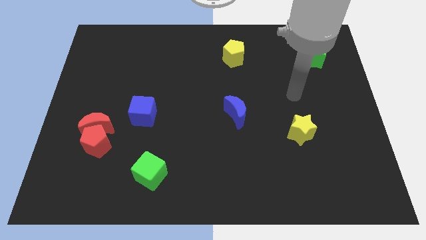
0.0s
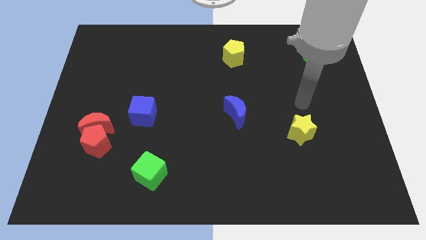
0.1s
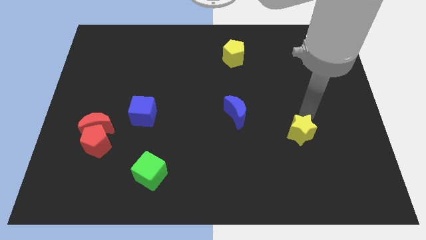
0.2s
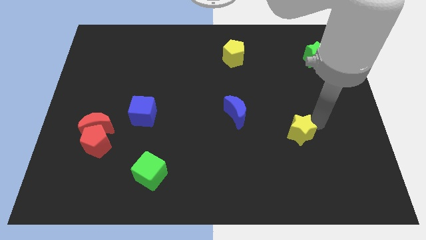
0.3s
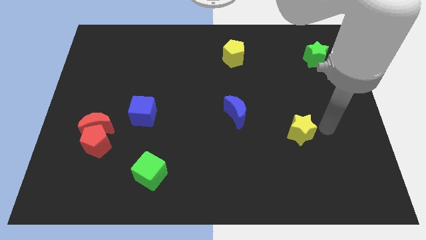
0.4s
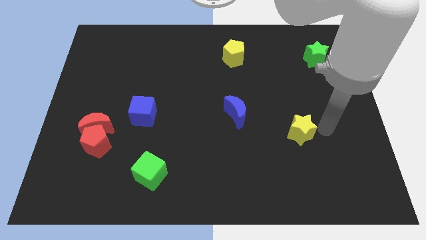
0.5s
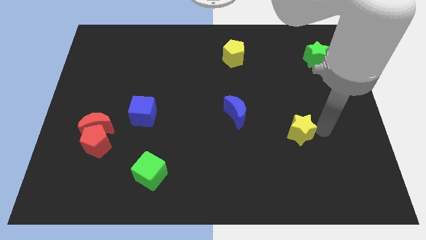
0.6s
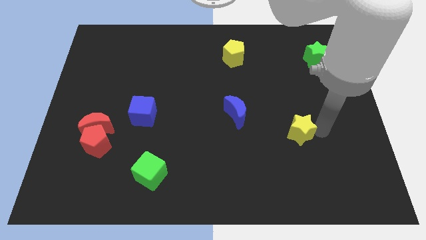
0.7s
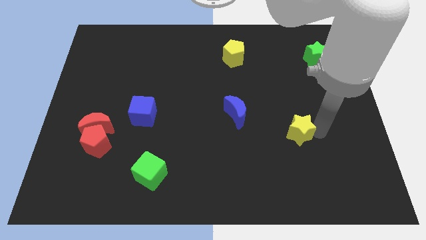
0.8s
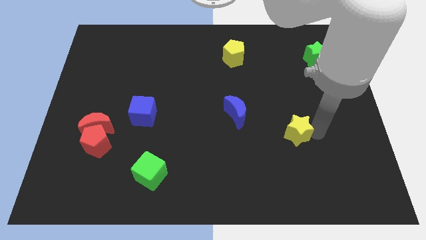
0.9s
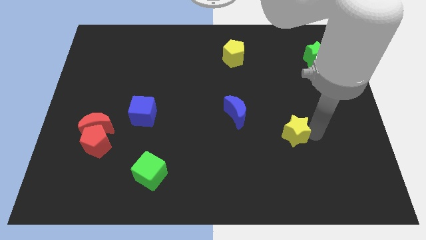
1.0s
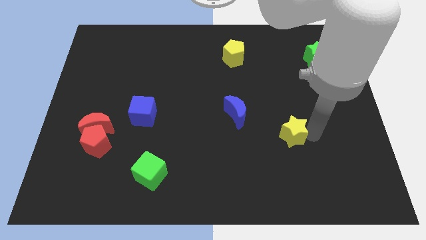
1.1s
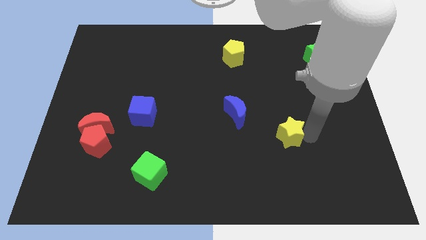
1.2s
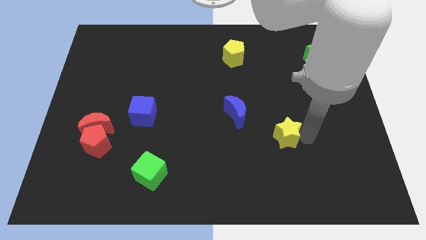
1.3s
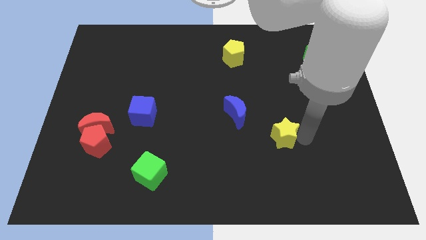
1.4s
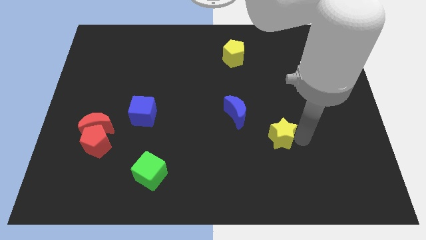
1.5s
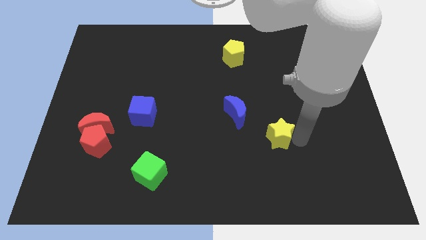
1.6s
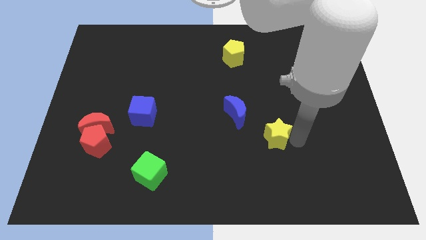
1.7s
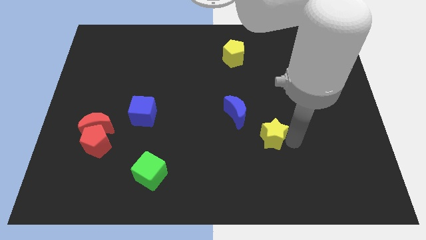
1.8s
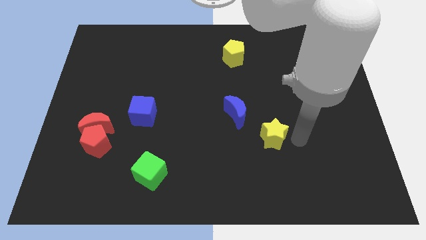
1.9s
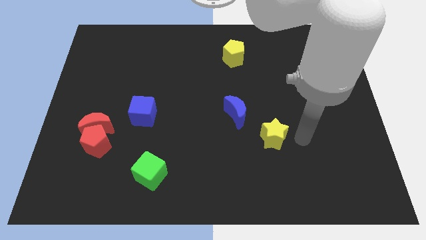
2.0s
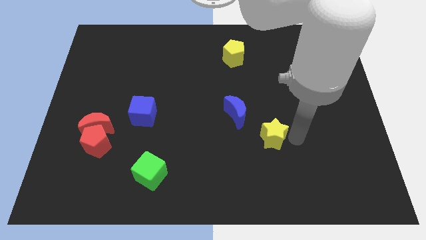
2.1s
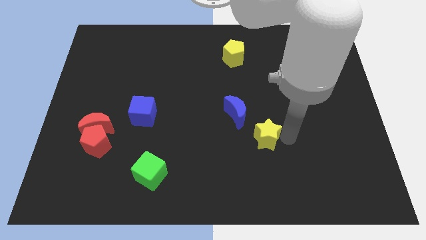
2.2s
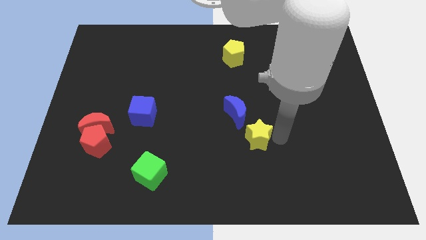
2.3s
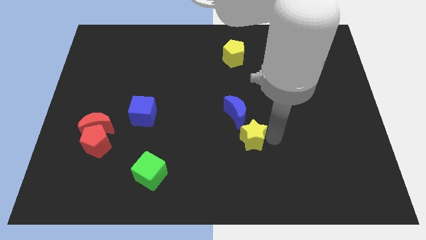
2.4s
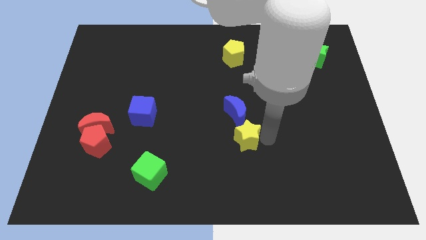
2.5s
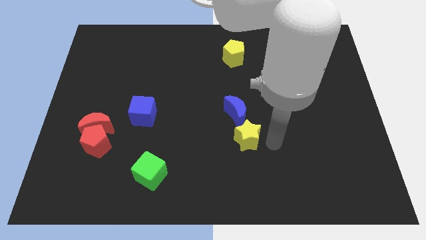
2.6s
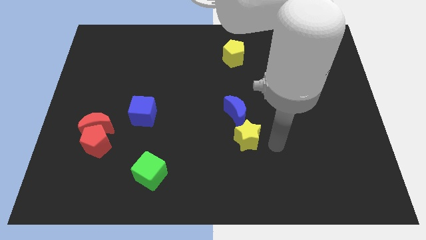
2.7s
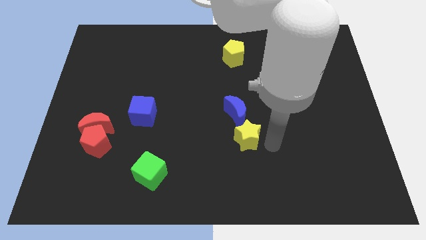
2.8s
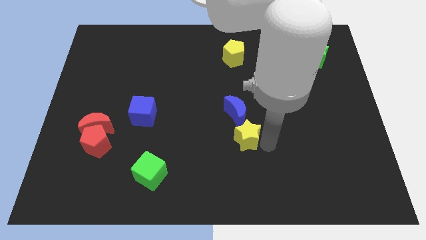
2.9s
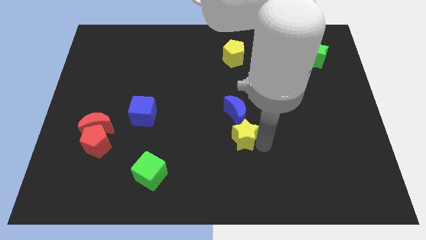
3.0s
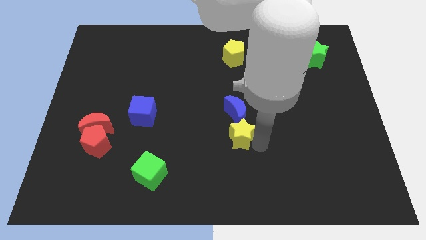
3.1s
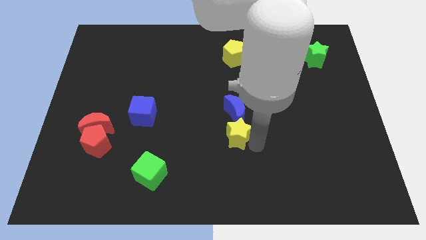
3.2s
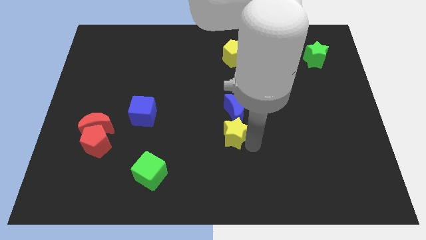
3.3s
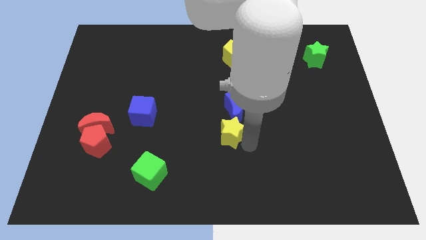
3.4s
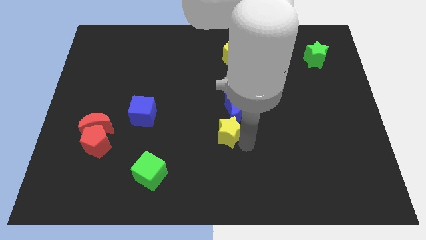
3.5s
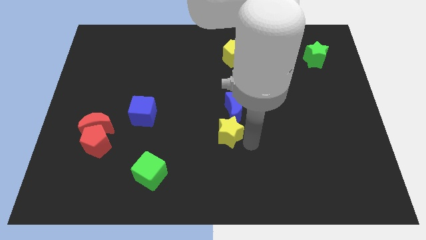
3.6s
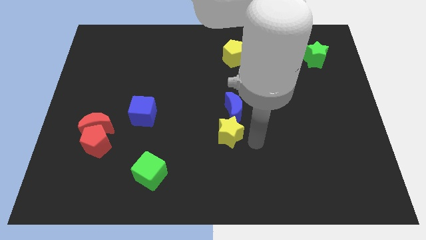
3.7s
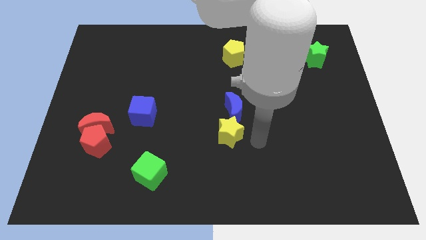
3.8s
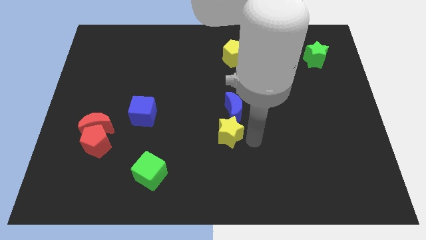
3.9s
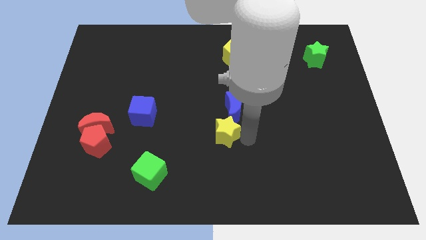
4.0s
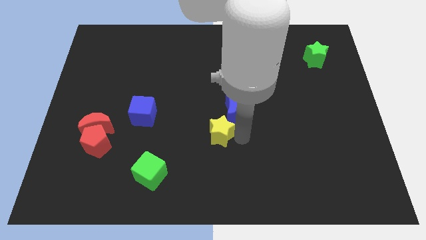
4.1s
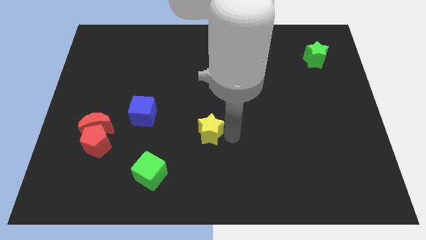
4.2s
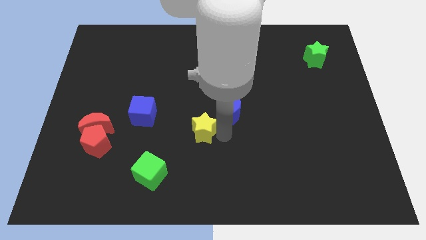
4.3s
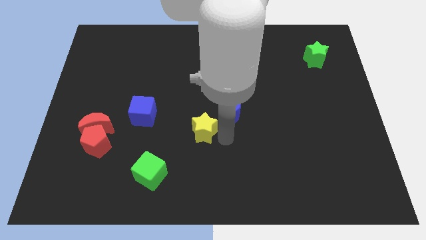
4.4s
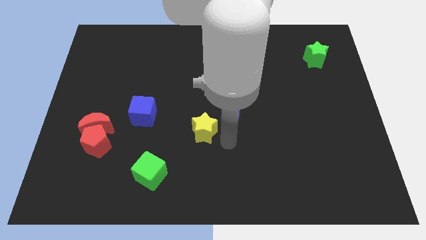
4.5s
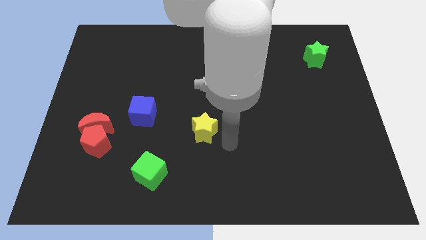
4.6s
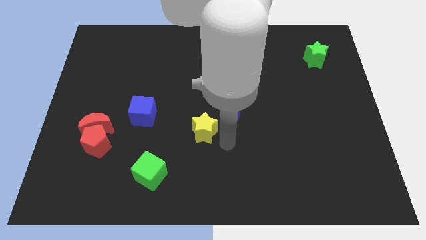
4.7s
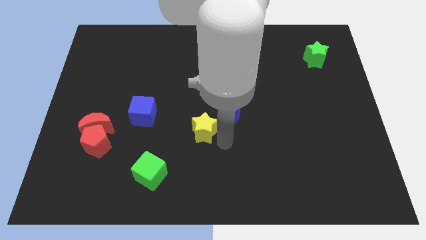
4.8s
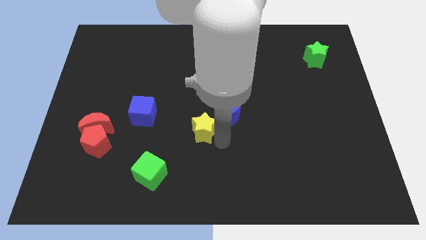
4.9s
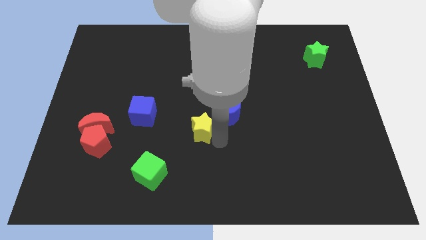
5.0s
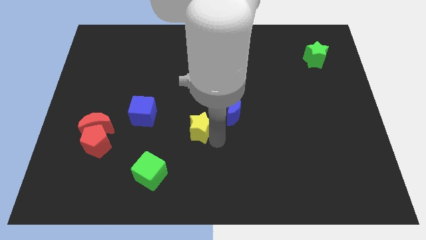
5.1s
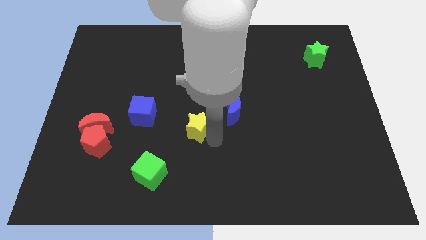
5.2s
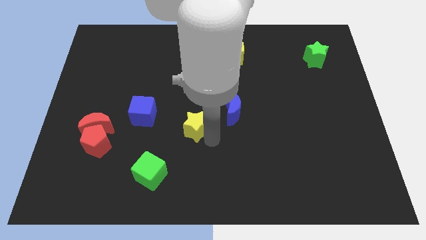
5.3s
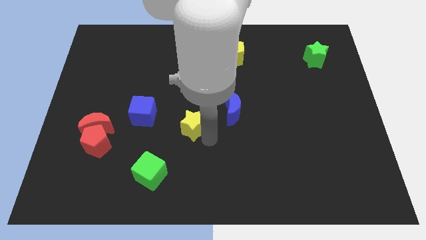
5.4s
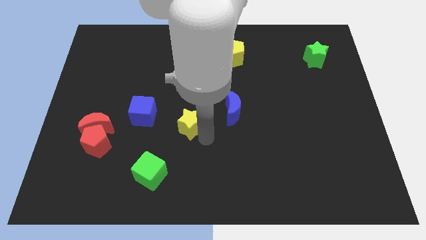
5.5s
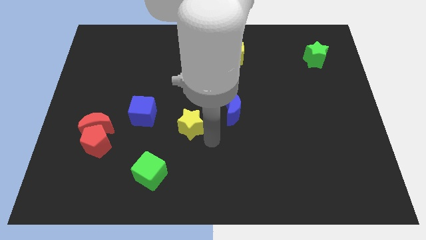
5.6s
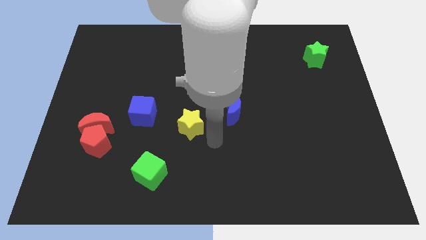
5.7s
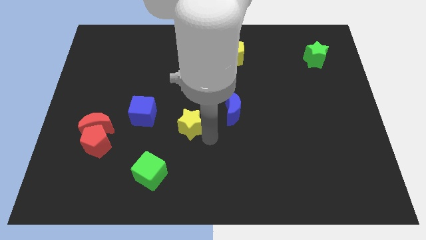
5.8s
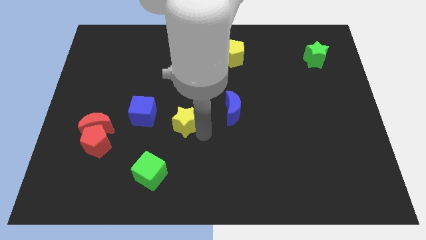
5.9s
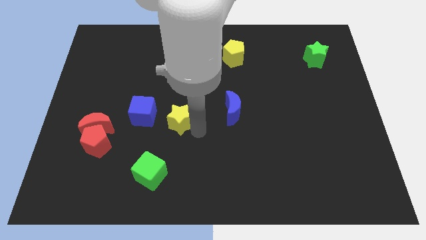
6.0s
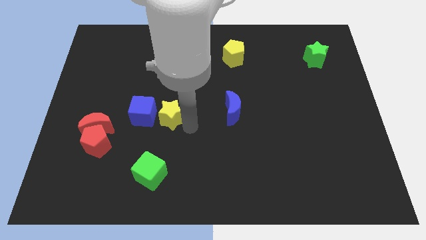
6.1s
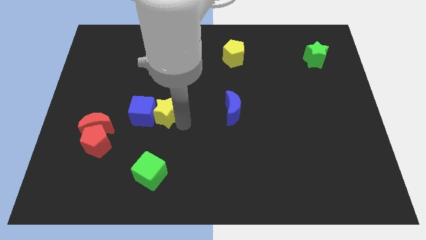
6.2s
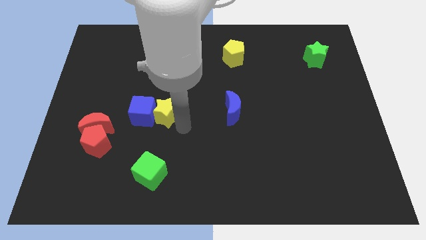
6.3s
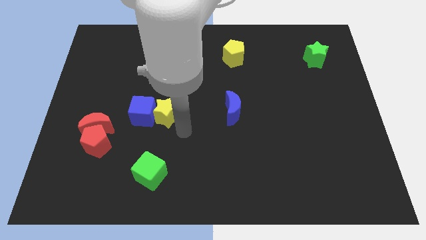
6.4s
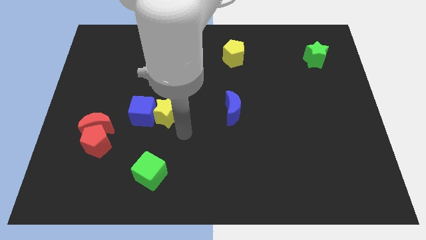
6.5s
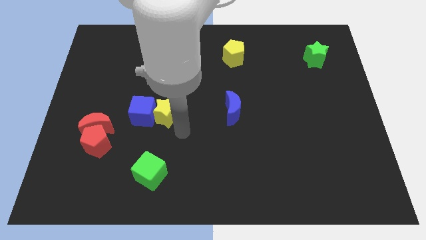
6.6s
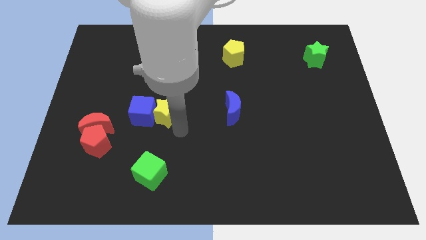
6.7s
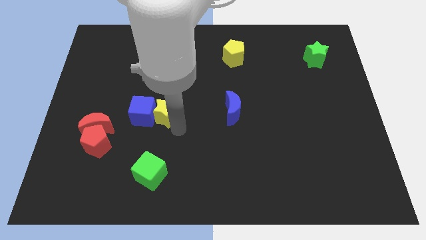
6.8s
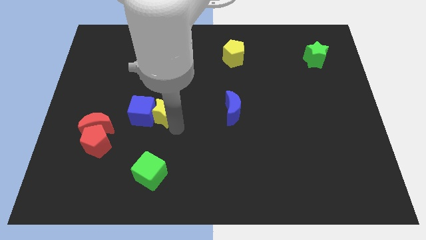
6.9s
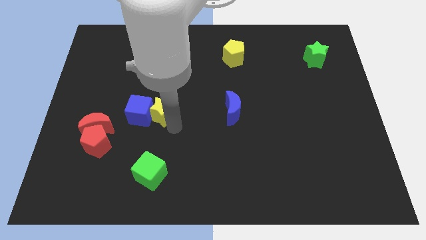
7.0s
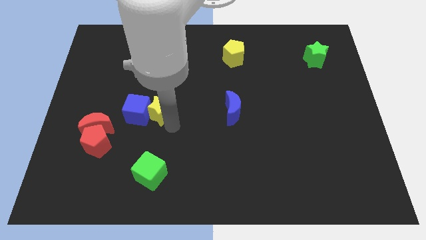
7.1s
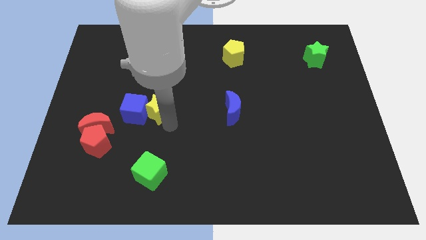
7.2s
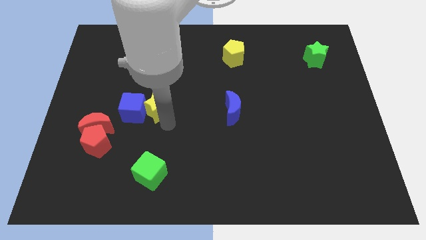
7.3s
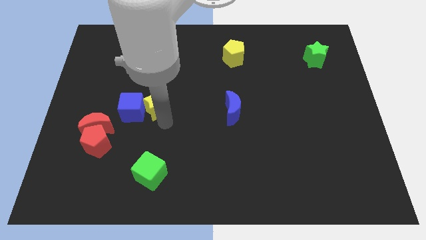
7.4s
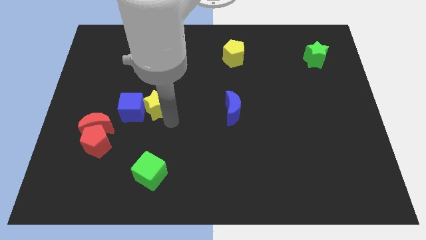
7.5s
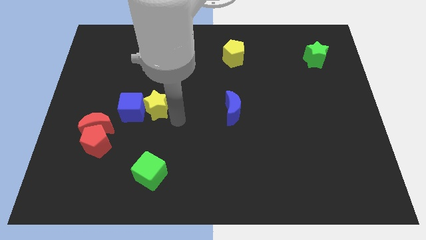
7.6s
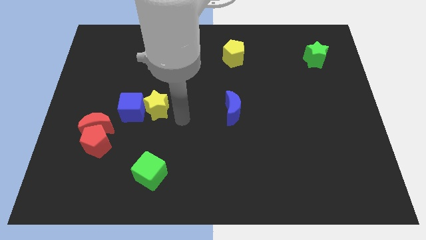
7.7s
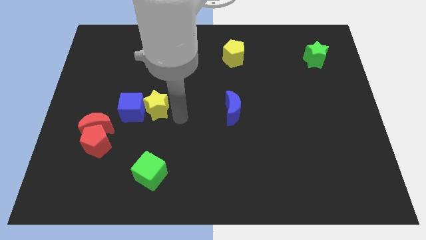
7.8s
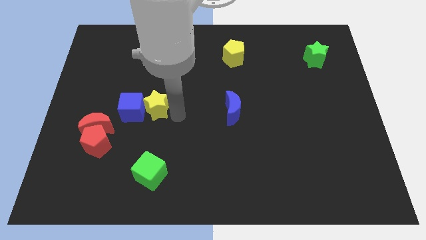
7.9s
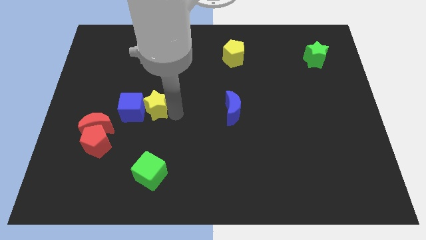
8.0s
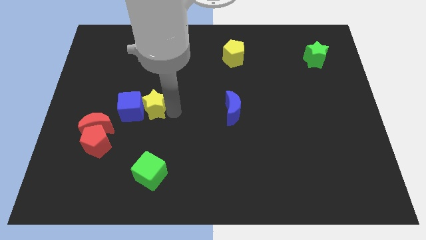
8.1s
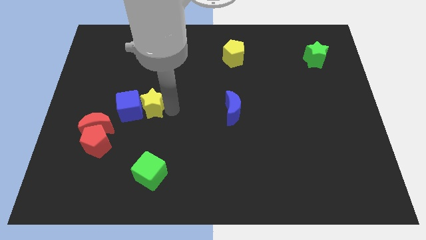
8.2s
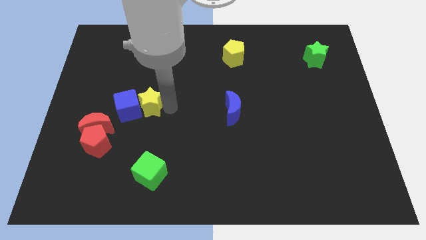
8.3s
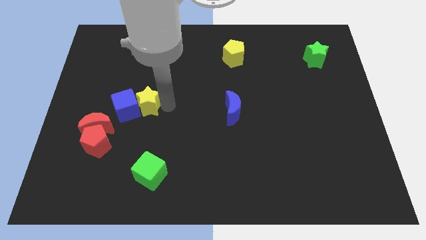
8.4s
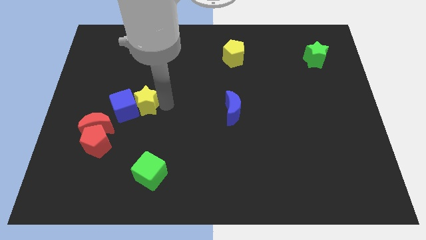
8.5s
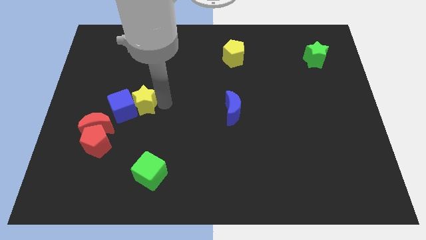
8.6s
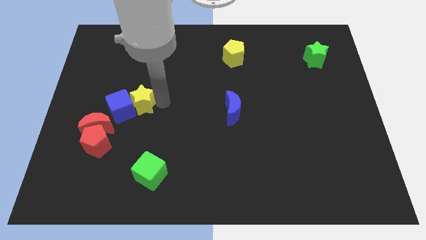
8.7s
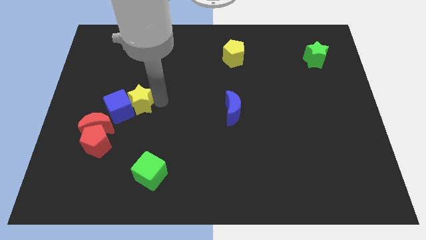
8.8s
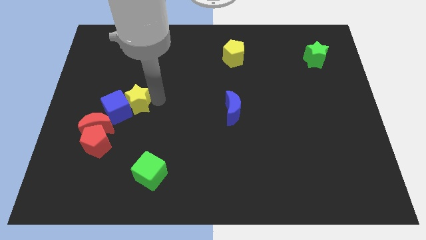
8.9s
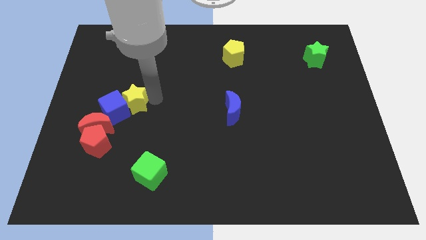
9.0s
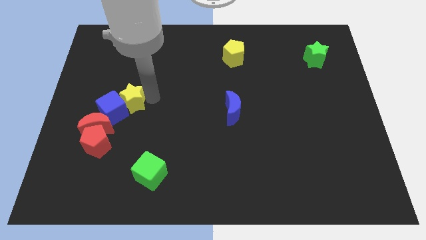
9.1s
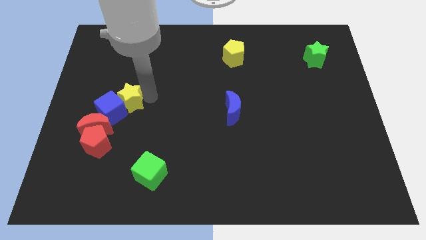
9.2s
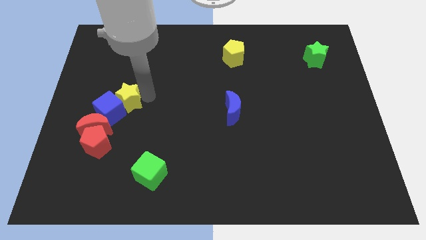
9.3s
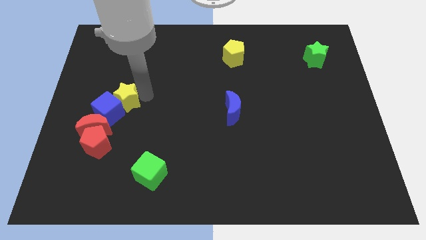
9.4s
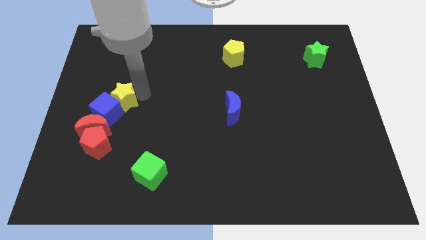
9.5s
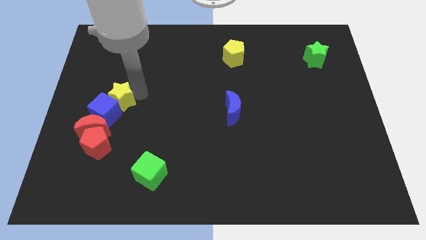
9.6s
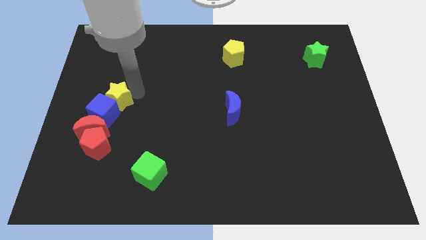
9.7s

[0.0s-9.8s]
move the yellow star to the top of the red moon
